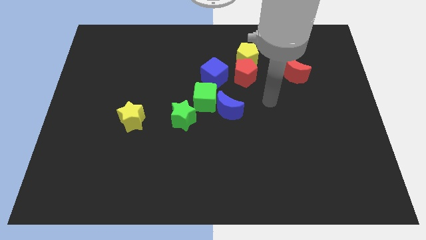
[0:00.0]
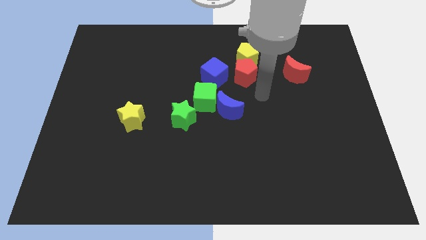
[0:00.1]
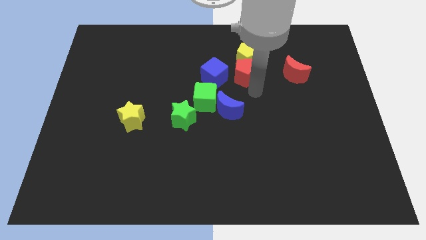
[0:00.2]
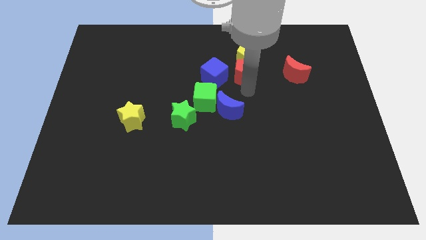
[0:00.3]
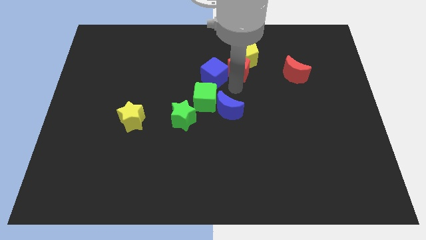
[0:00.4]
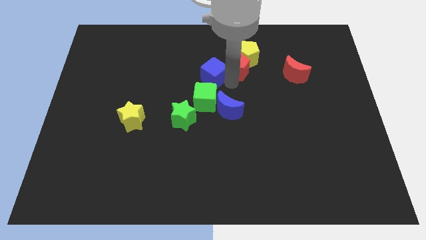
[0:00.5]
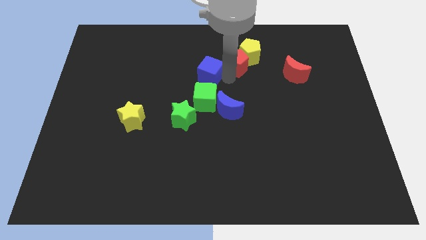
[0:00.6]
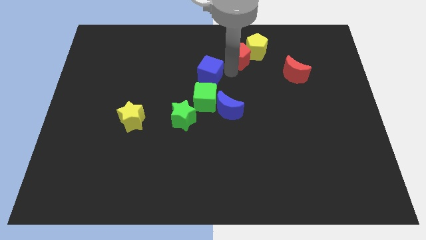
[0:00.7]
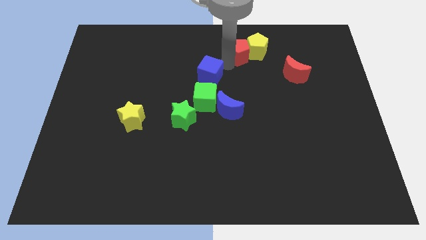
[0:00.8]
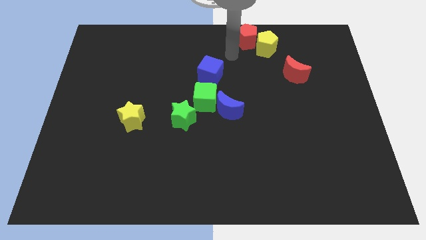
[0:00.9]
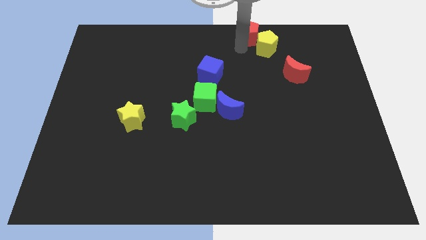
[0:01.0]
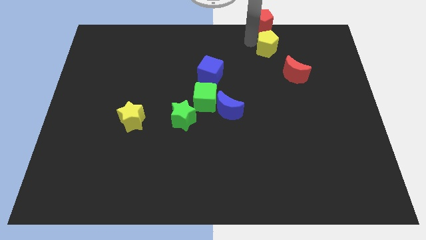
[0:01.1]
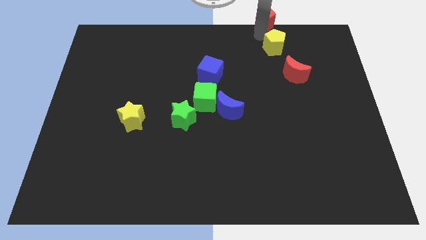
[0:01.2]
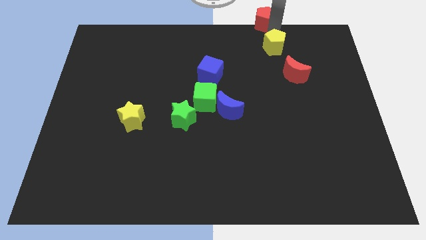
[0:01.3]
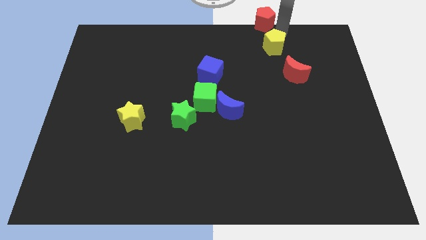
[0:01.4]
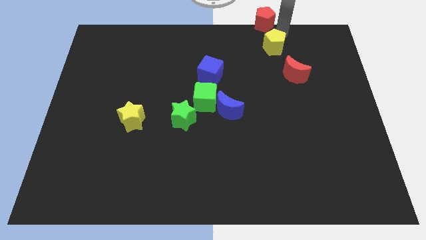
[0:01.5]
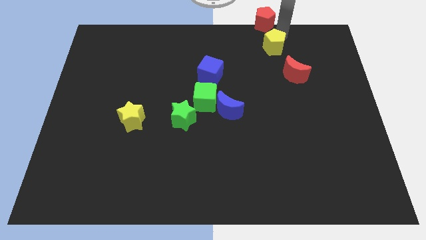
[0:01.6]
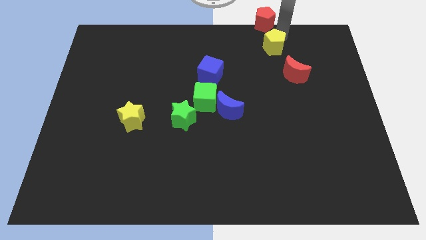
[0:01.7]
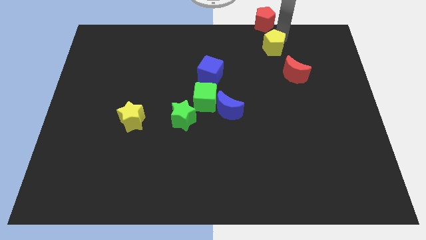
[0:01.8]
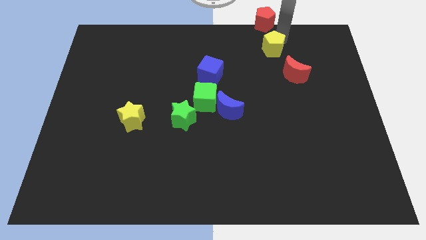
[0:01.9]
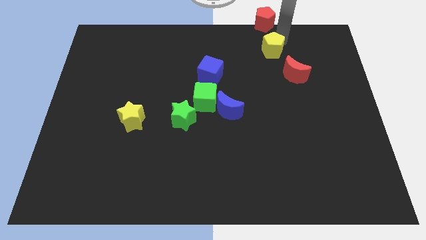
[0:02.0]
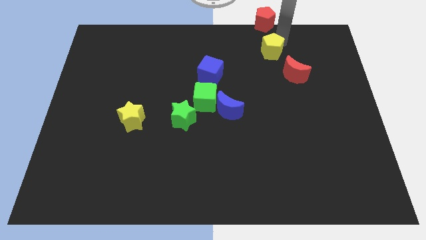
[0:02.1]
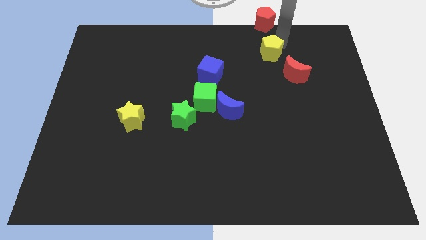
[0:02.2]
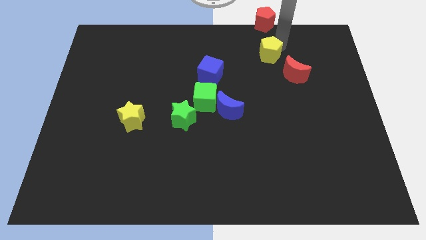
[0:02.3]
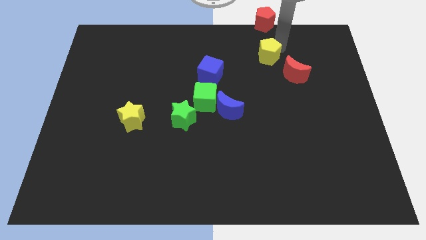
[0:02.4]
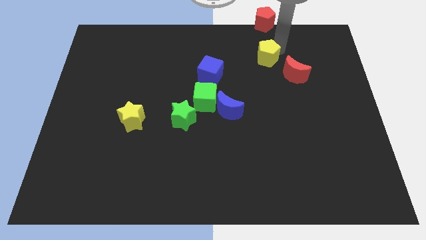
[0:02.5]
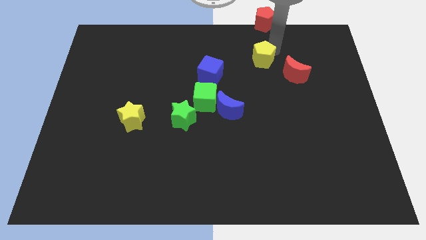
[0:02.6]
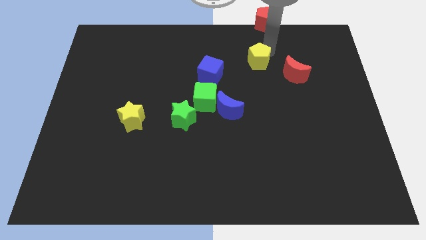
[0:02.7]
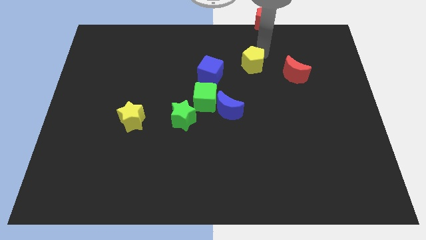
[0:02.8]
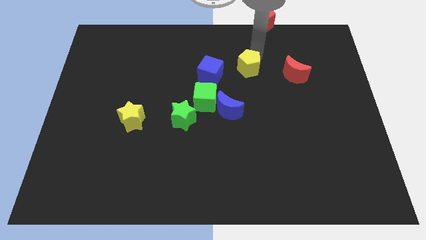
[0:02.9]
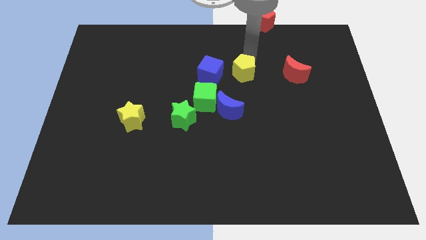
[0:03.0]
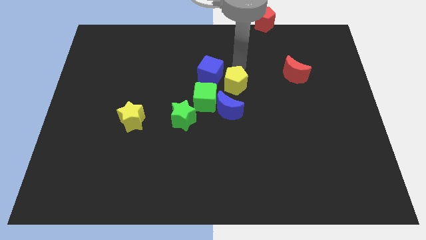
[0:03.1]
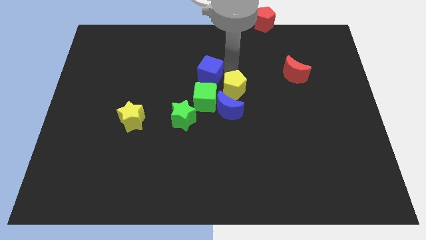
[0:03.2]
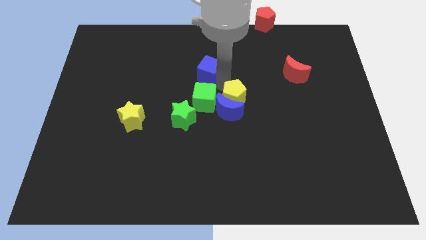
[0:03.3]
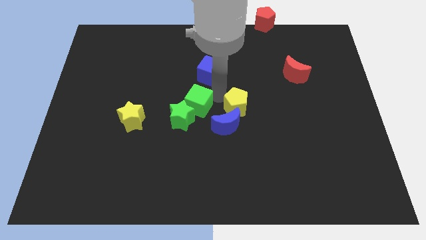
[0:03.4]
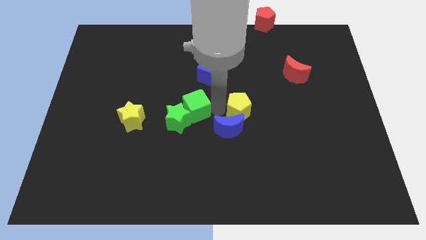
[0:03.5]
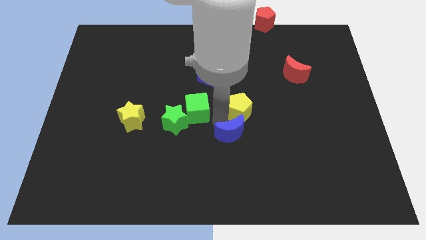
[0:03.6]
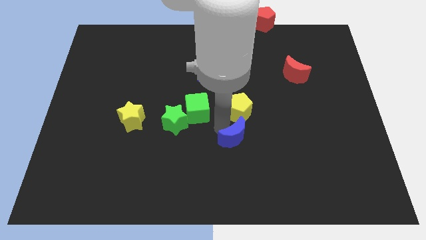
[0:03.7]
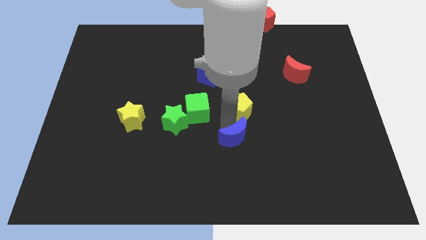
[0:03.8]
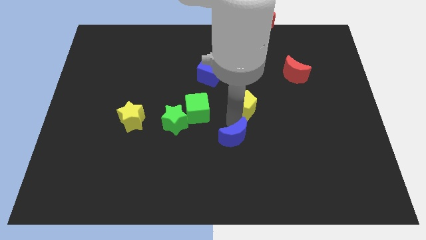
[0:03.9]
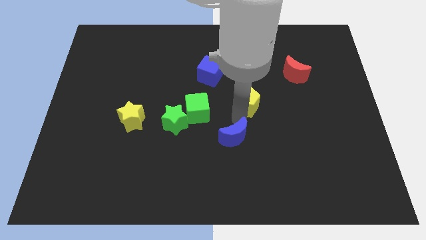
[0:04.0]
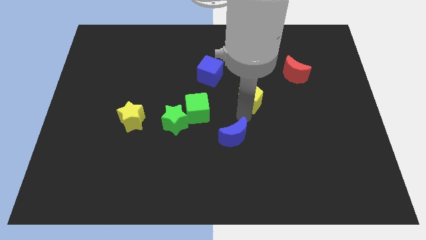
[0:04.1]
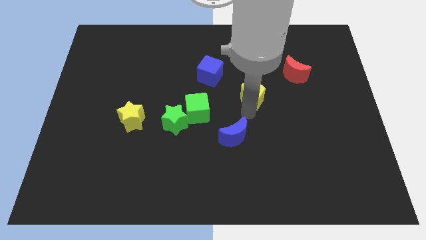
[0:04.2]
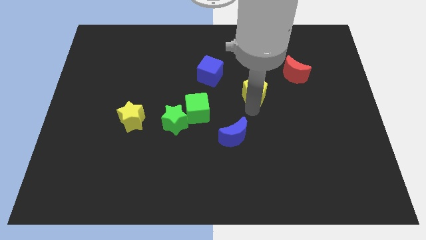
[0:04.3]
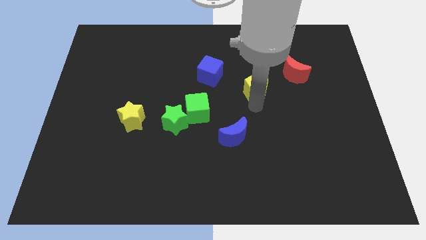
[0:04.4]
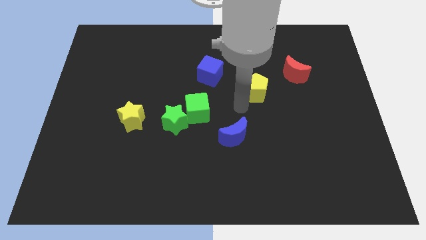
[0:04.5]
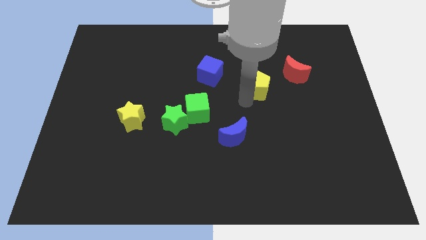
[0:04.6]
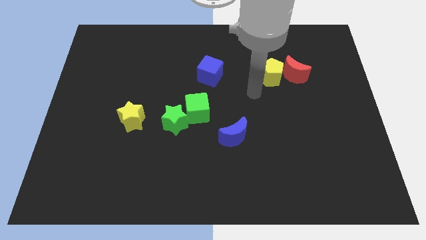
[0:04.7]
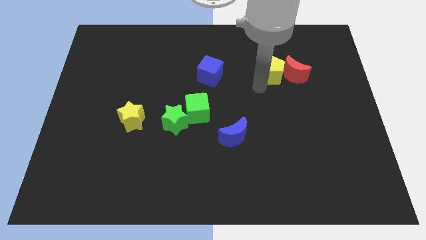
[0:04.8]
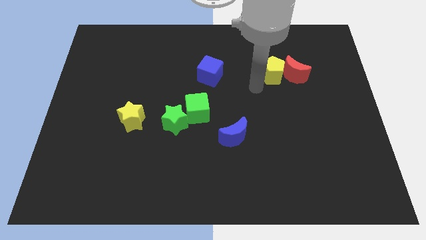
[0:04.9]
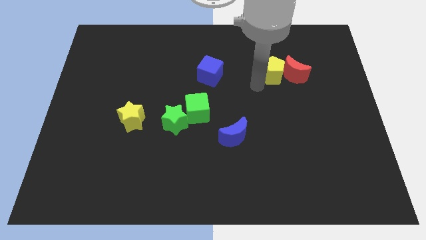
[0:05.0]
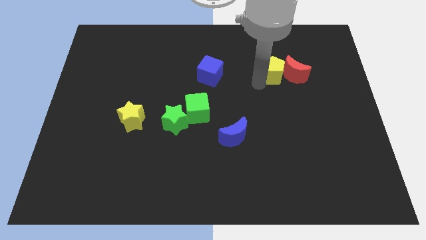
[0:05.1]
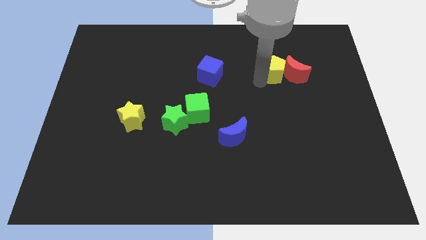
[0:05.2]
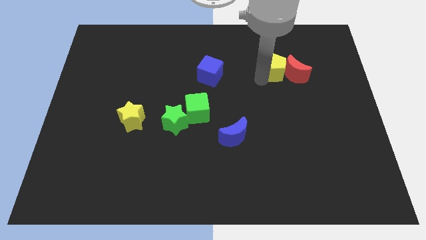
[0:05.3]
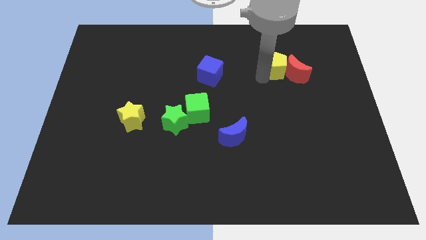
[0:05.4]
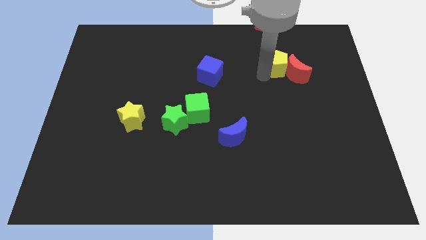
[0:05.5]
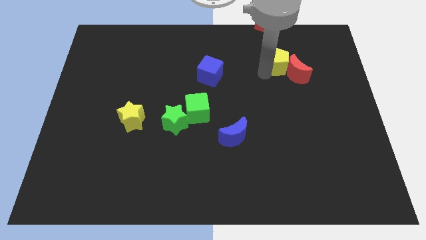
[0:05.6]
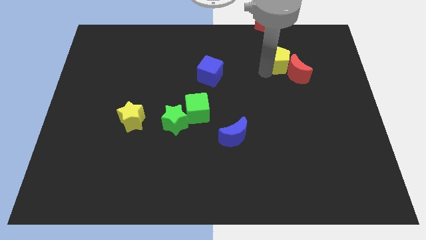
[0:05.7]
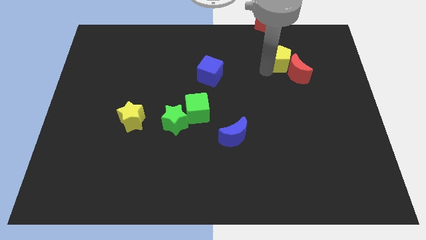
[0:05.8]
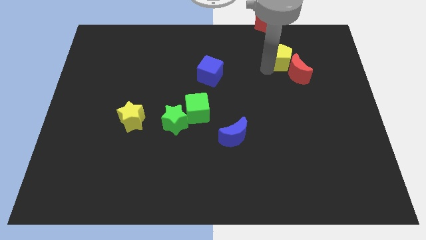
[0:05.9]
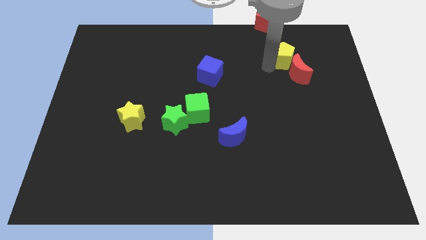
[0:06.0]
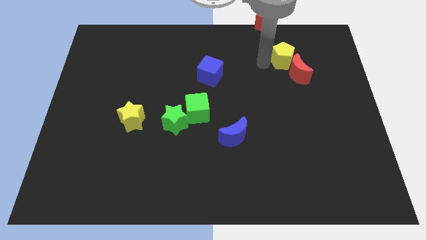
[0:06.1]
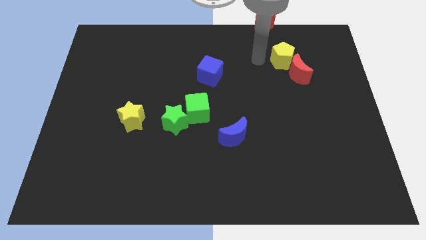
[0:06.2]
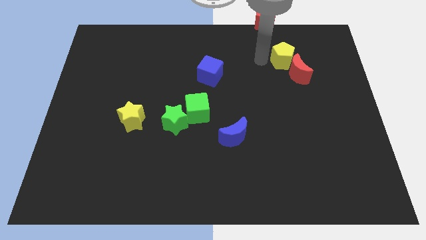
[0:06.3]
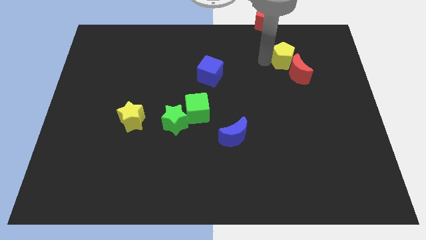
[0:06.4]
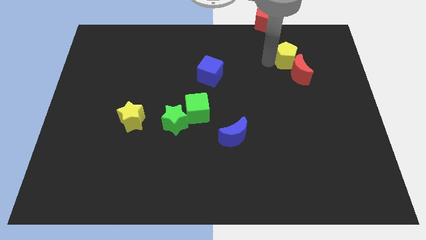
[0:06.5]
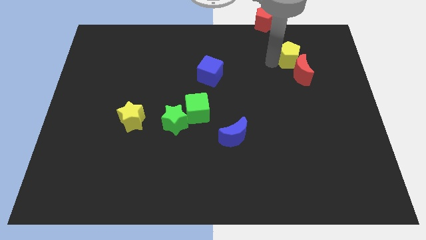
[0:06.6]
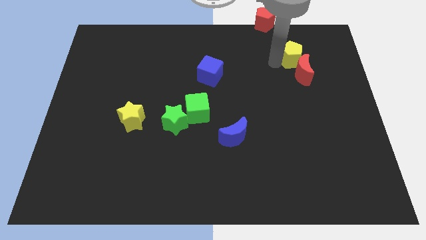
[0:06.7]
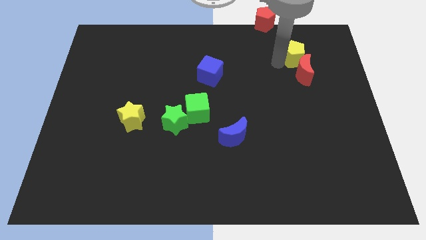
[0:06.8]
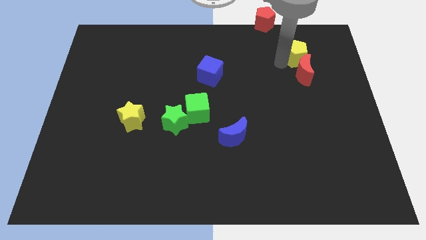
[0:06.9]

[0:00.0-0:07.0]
put the yellow pentagon to the top right of the red moon
